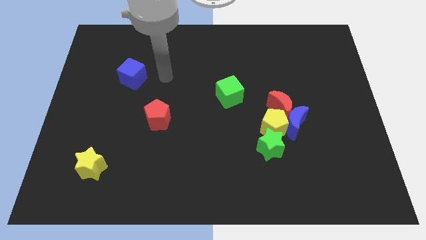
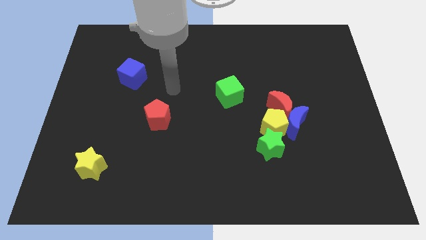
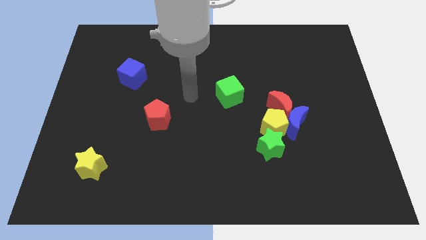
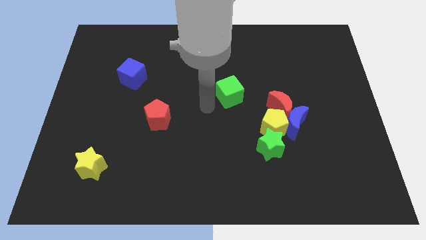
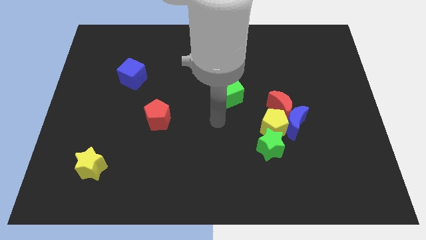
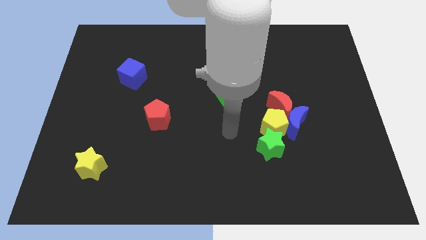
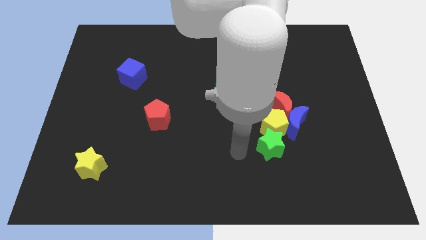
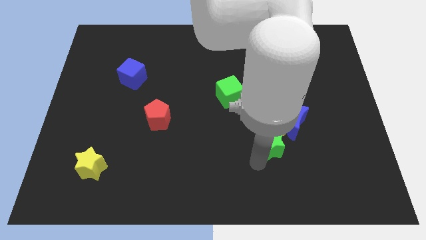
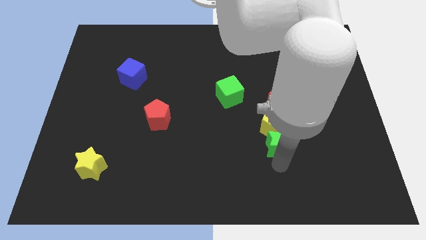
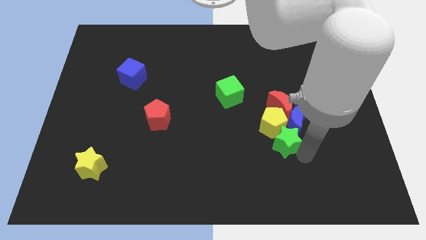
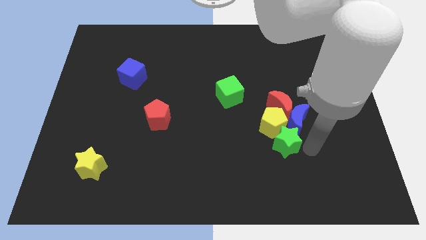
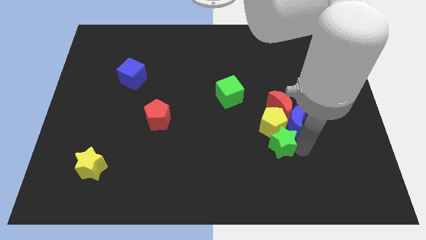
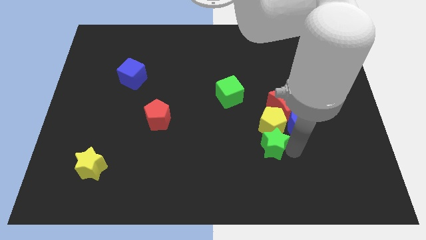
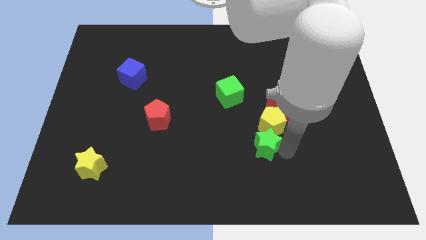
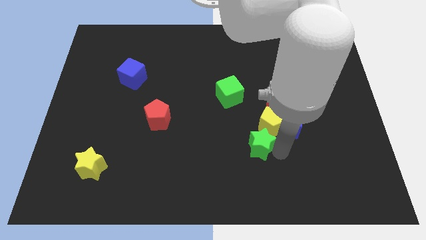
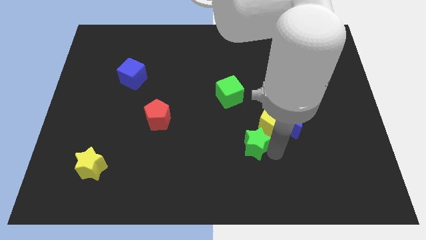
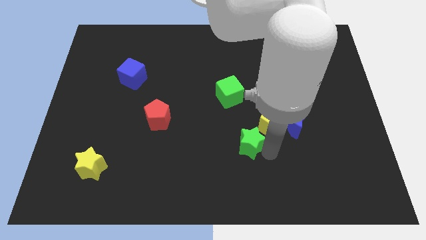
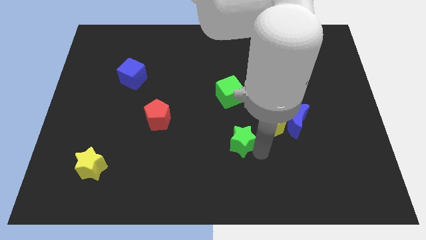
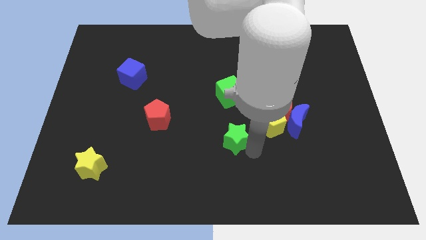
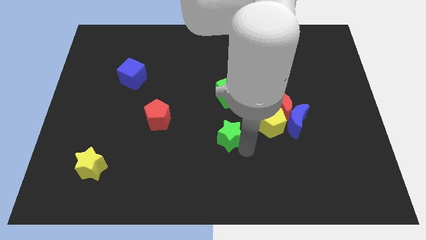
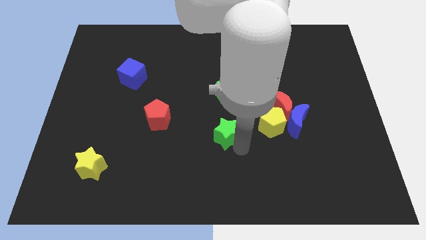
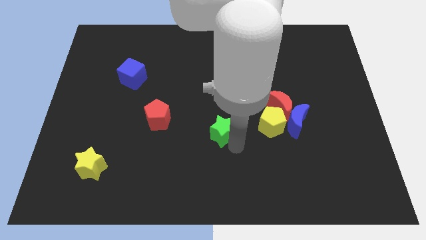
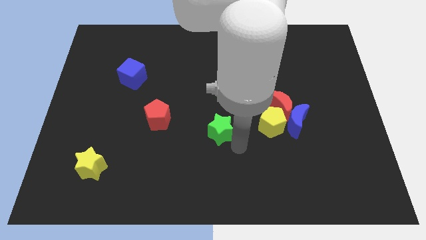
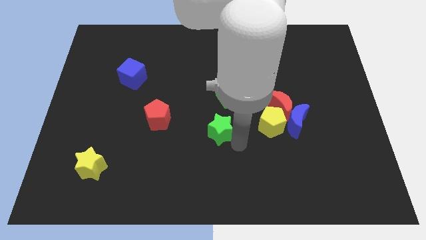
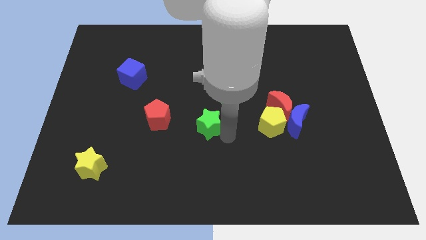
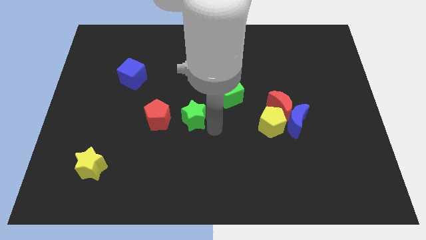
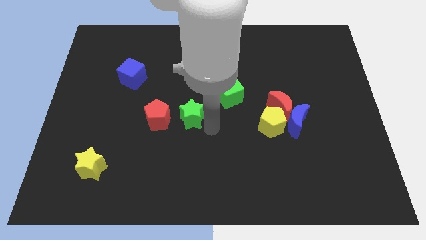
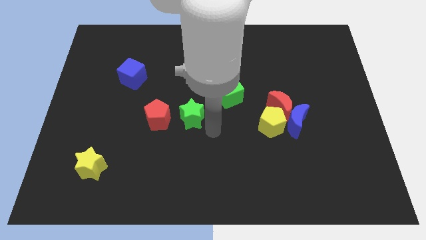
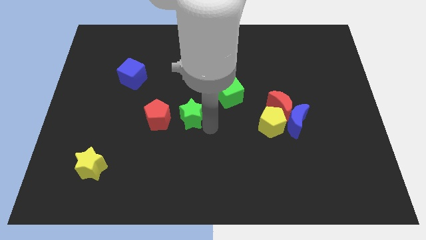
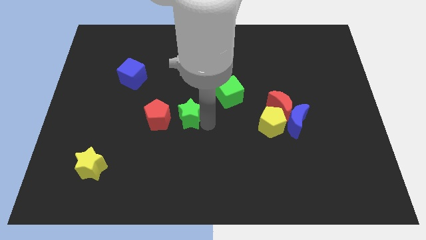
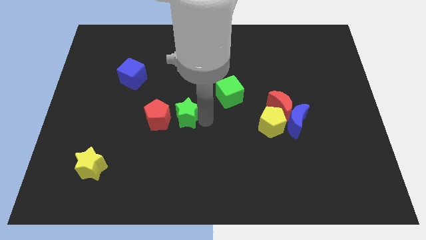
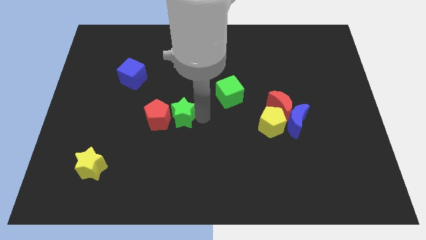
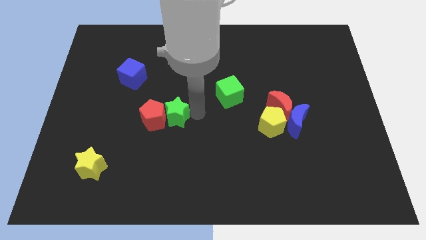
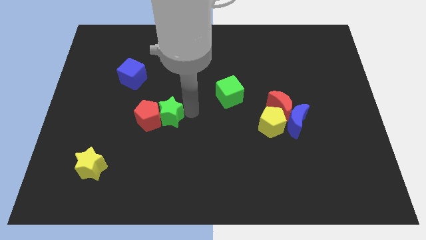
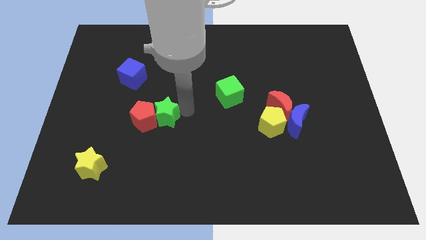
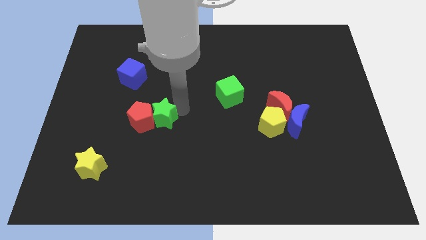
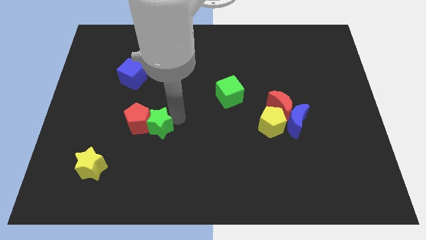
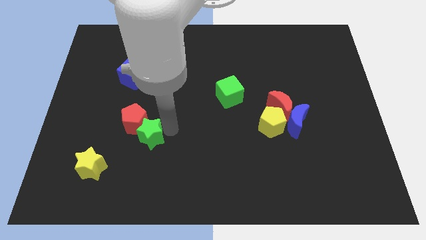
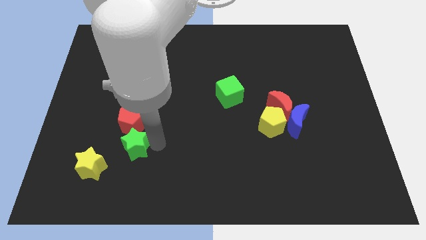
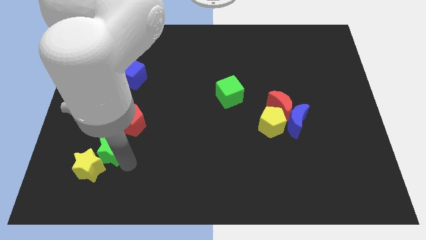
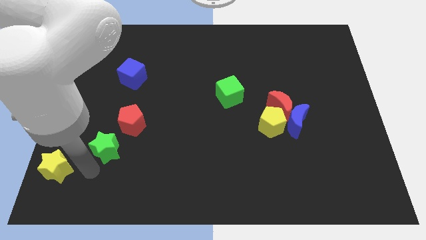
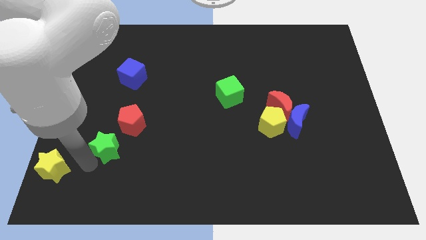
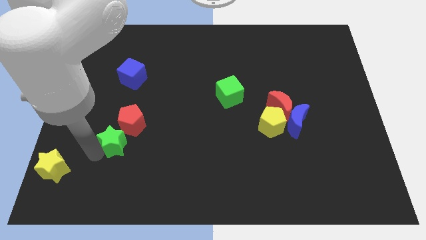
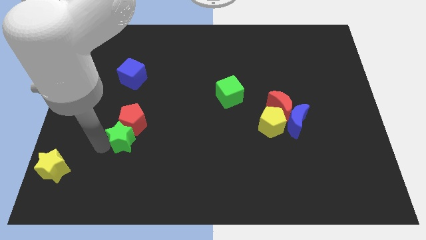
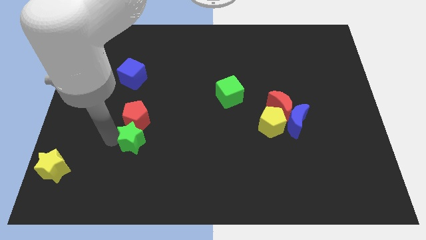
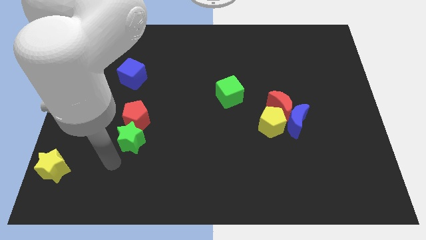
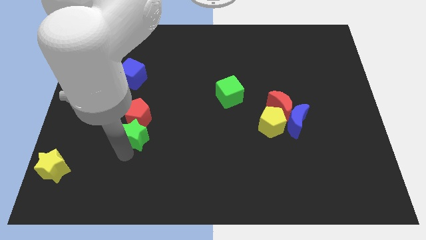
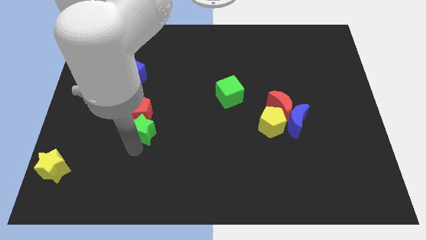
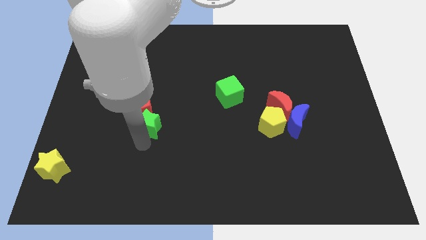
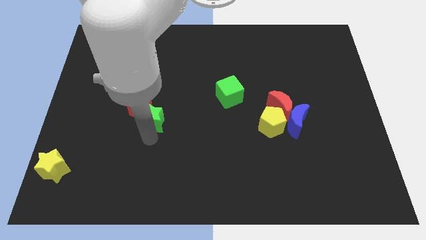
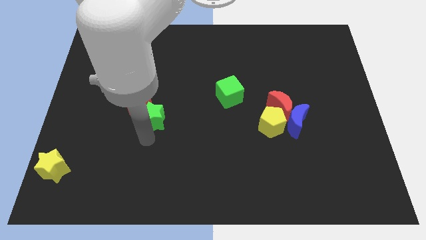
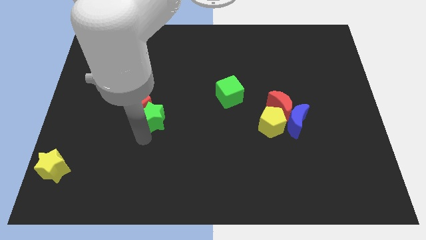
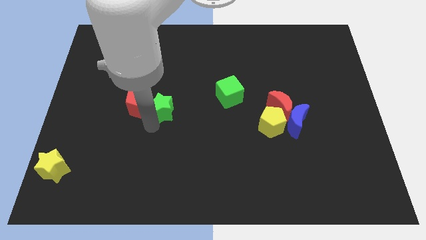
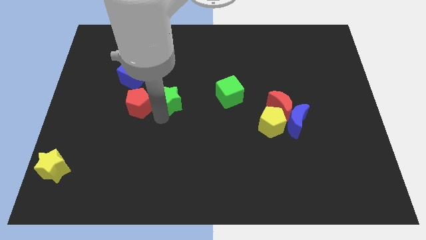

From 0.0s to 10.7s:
push the green star to the bottom right side of the blue cube

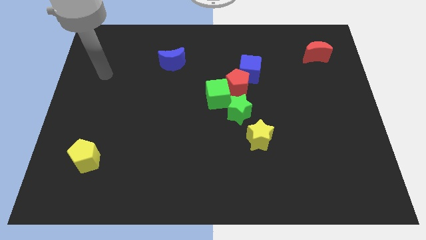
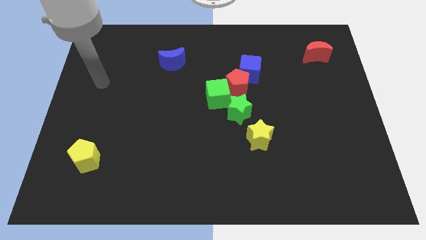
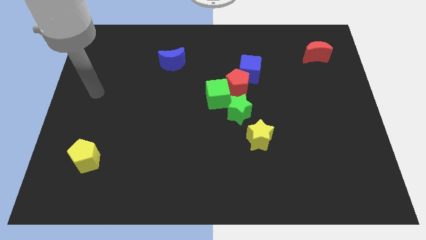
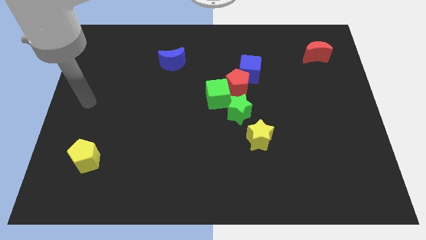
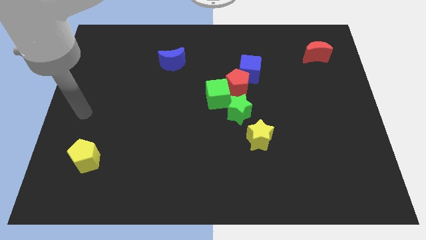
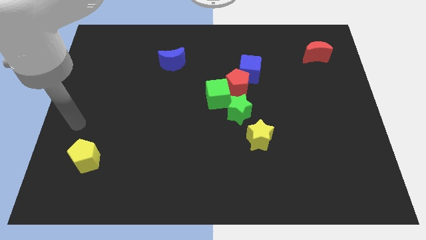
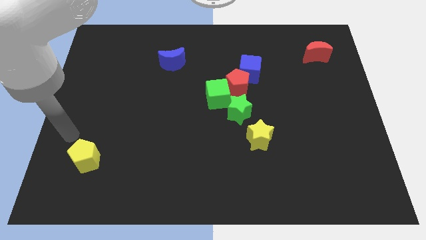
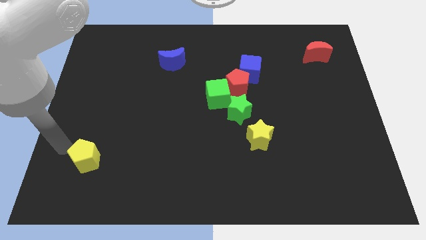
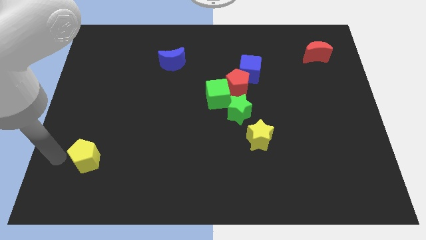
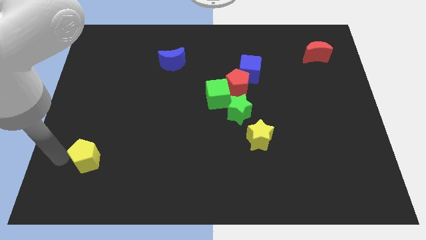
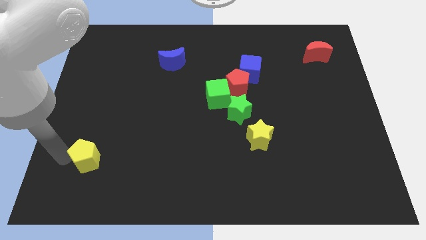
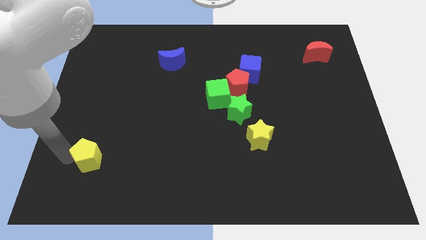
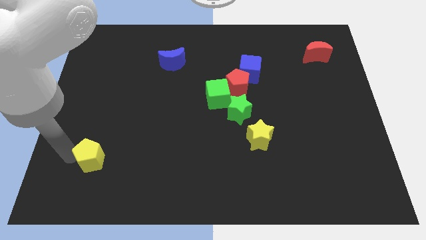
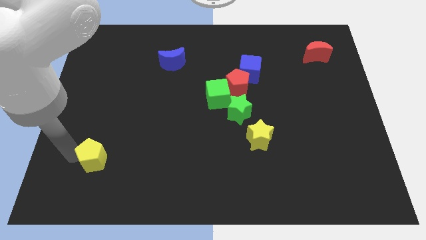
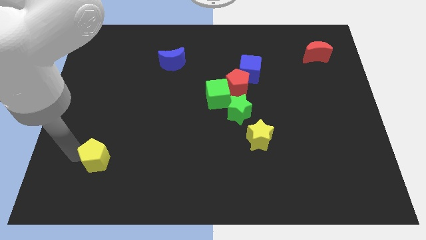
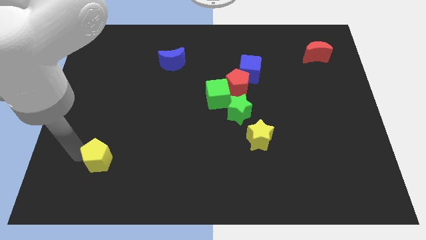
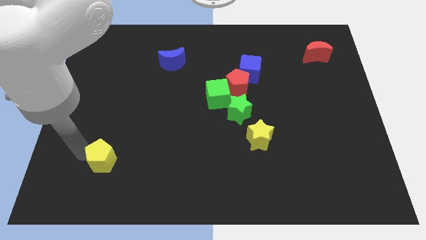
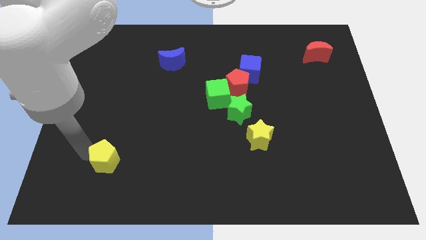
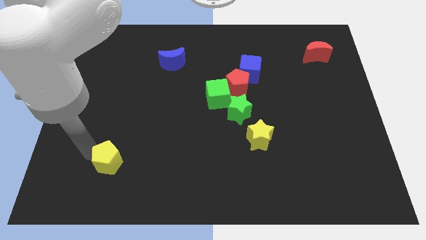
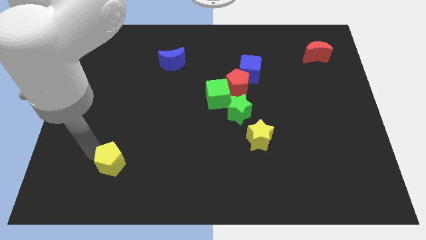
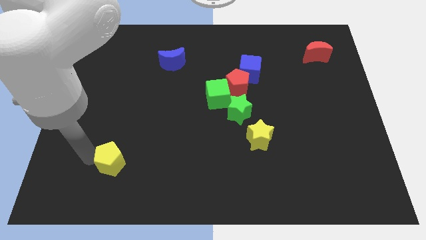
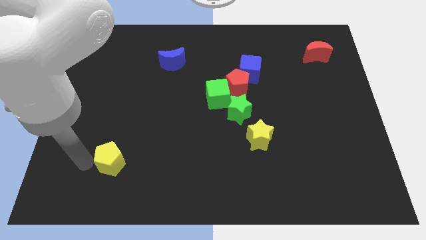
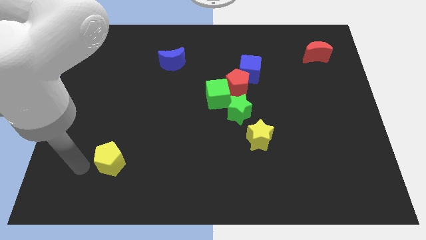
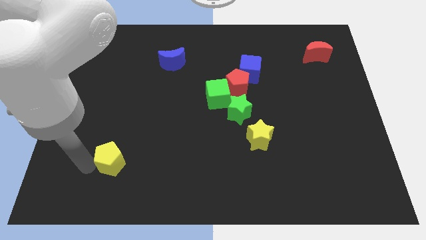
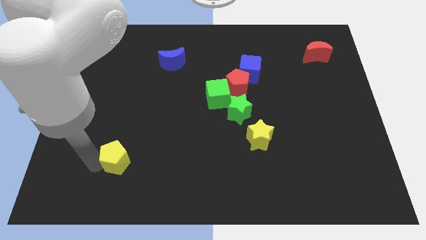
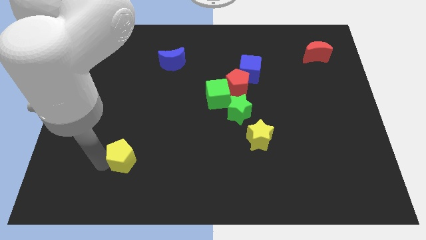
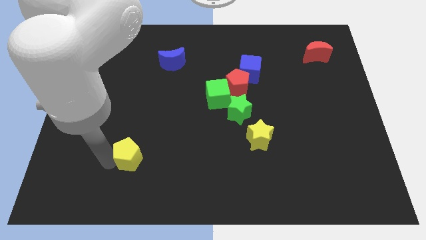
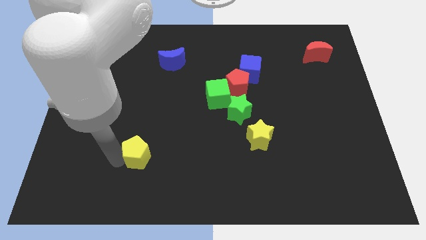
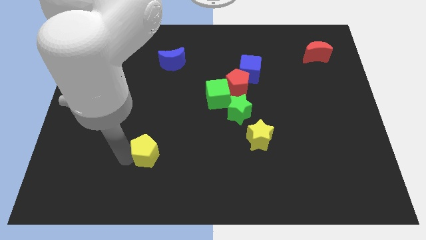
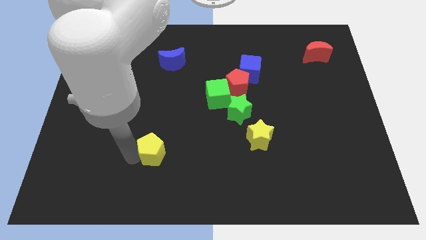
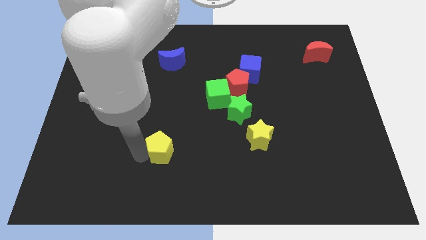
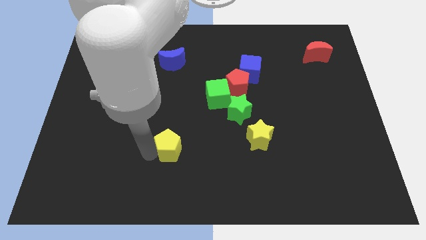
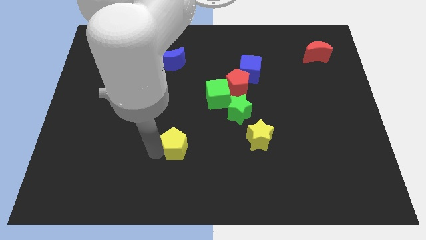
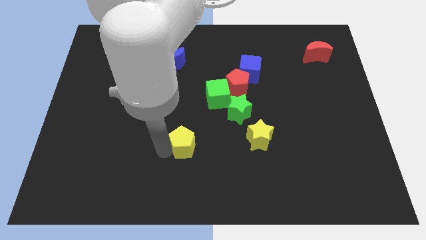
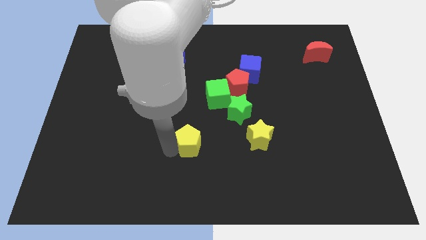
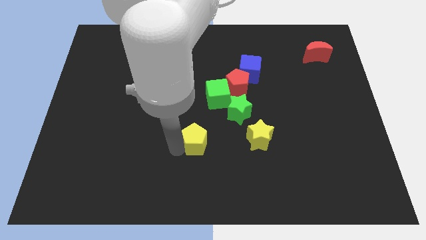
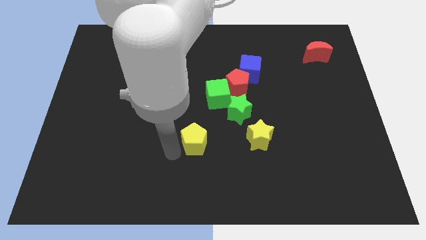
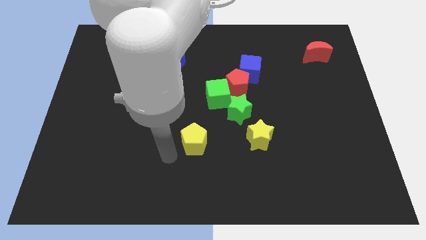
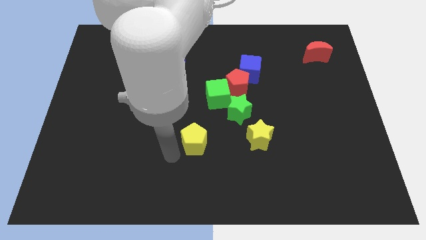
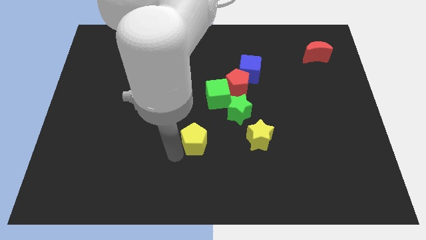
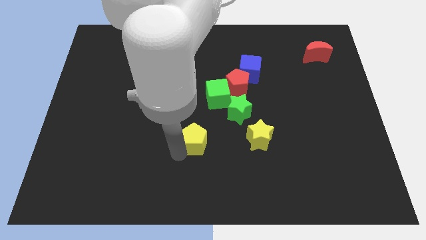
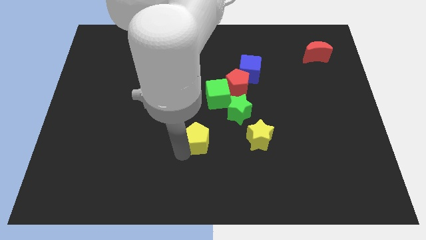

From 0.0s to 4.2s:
push the yellow pentagon diagonally down and to the left of the green star
